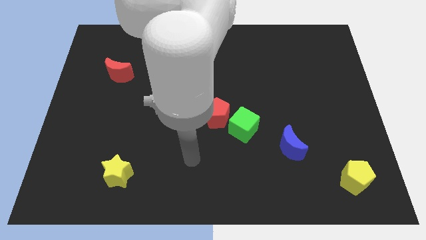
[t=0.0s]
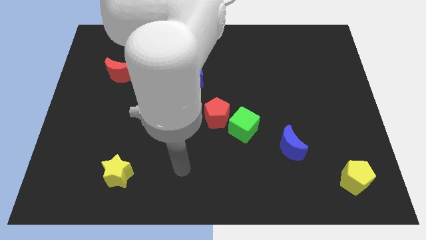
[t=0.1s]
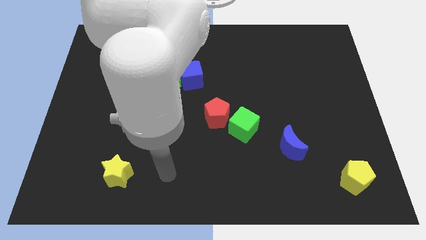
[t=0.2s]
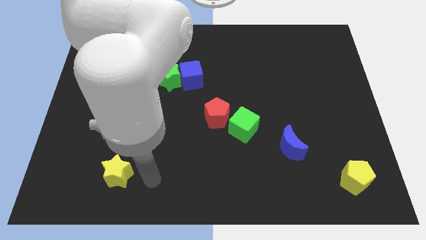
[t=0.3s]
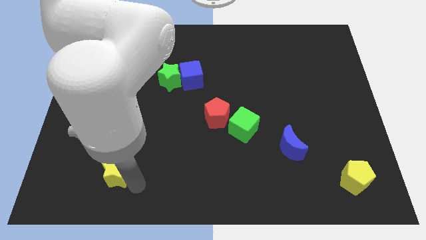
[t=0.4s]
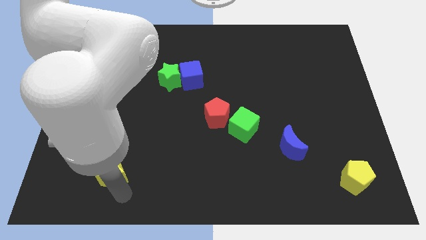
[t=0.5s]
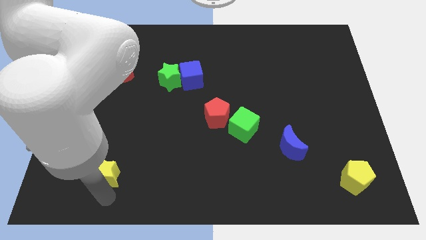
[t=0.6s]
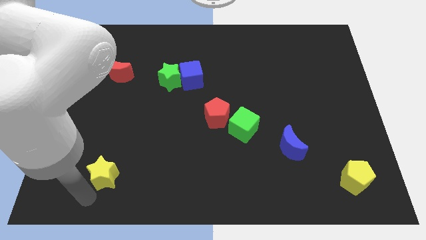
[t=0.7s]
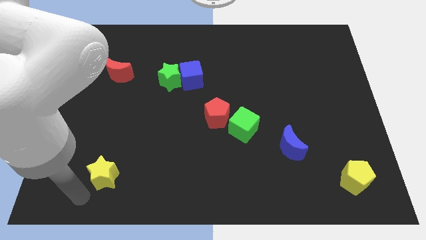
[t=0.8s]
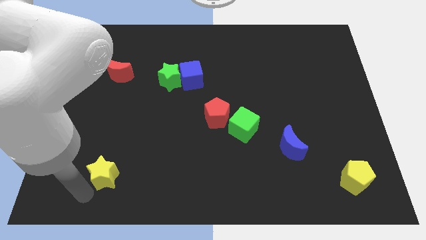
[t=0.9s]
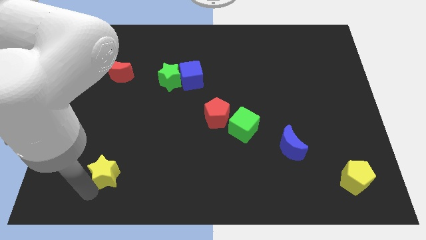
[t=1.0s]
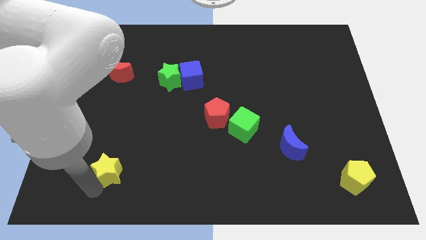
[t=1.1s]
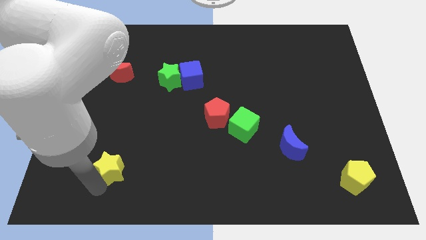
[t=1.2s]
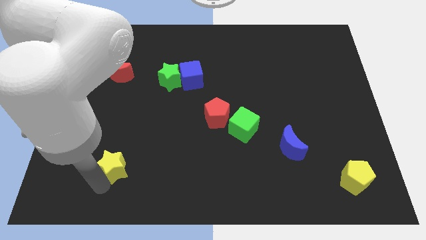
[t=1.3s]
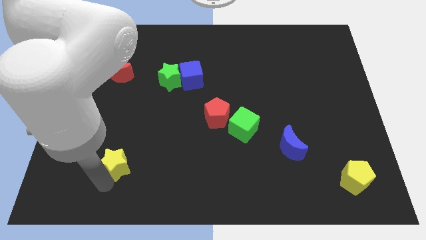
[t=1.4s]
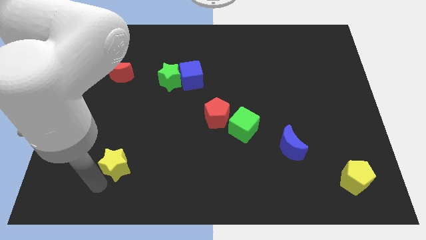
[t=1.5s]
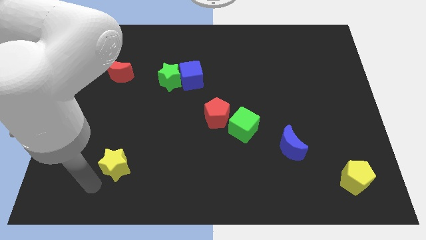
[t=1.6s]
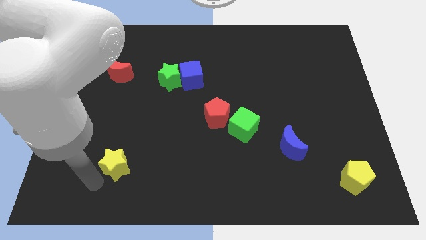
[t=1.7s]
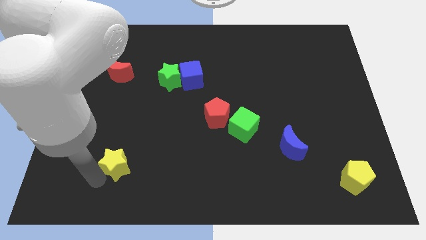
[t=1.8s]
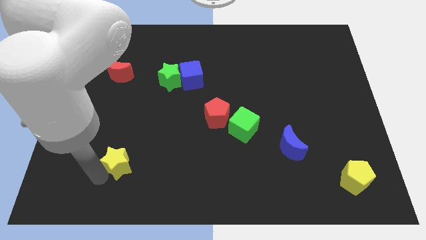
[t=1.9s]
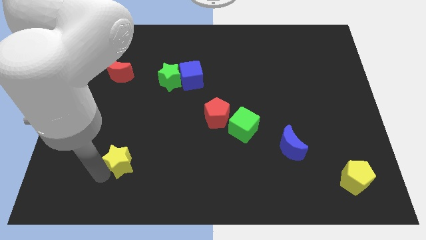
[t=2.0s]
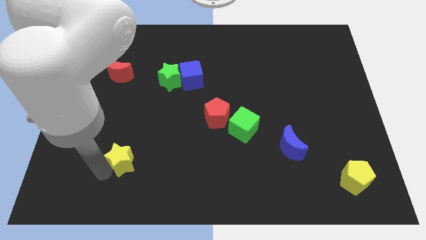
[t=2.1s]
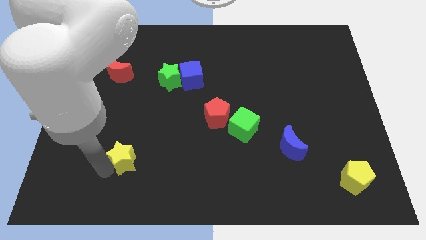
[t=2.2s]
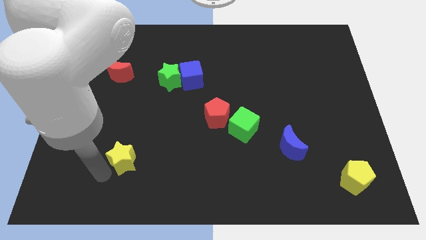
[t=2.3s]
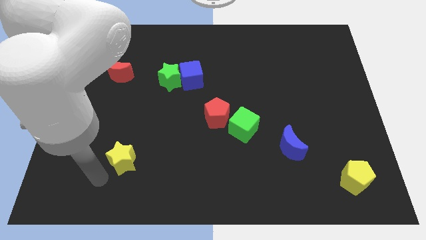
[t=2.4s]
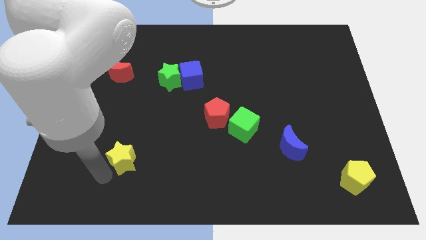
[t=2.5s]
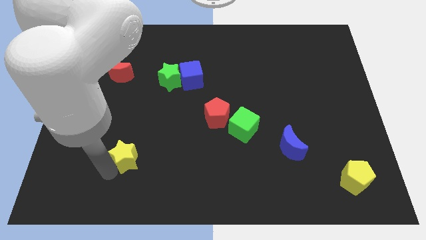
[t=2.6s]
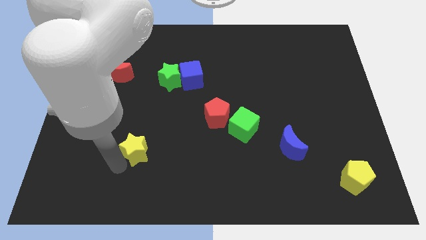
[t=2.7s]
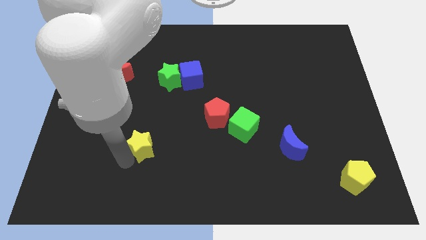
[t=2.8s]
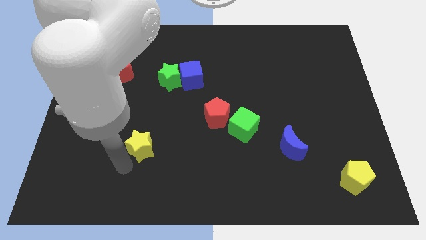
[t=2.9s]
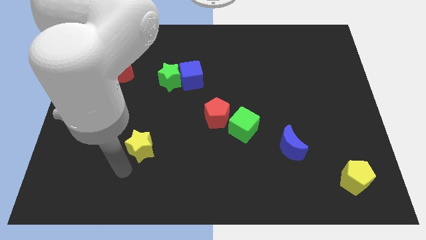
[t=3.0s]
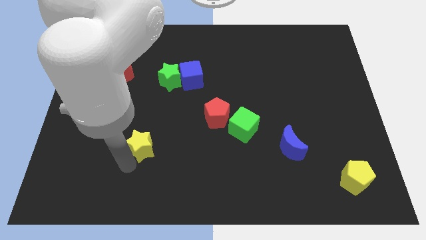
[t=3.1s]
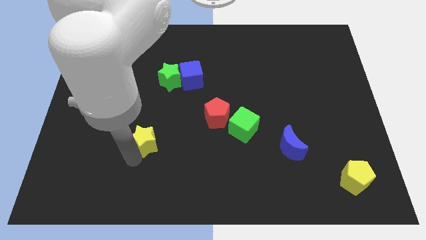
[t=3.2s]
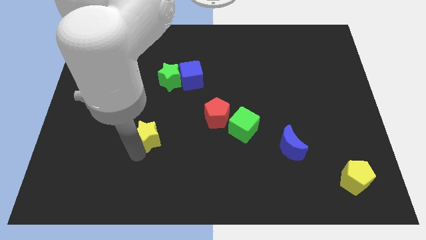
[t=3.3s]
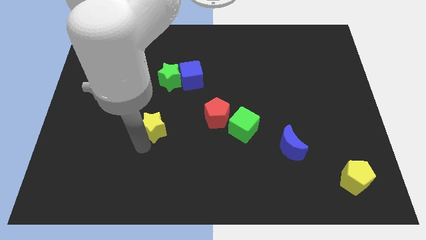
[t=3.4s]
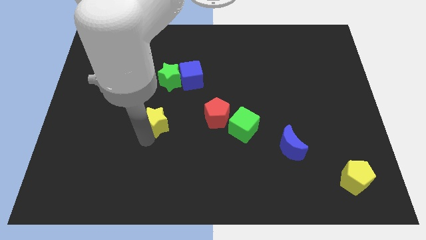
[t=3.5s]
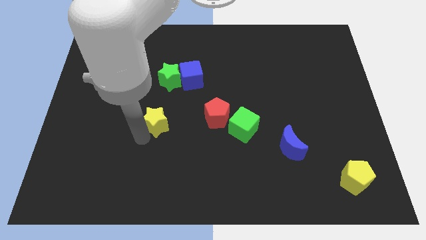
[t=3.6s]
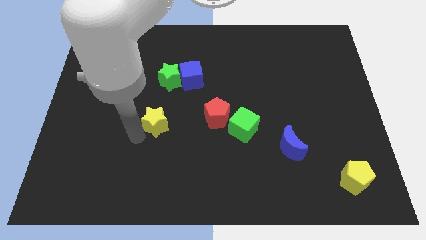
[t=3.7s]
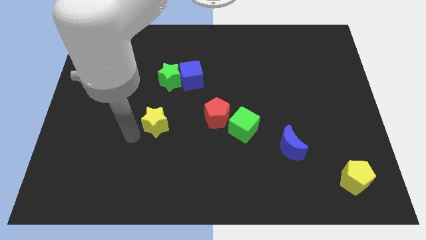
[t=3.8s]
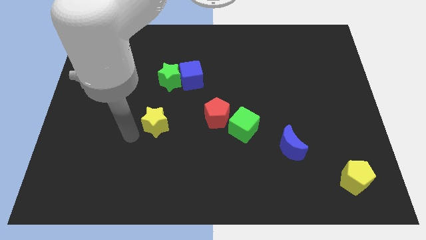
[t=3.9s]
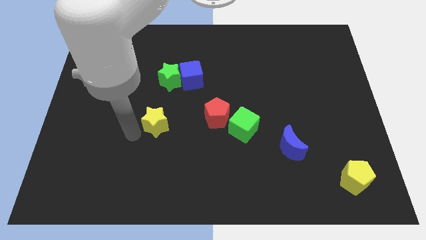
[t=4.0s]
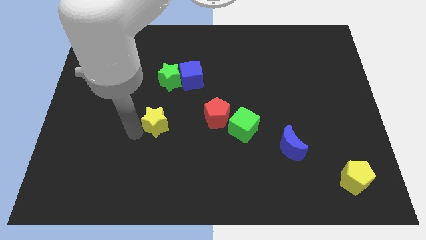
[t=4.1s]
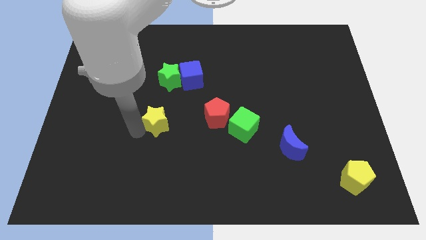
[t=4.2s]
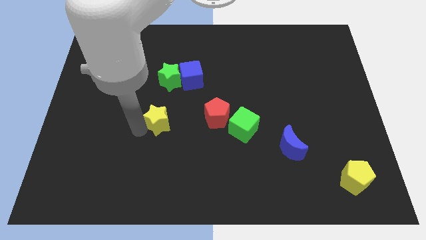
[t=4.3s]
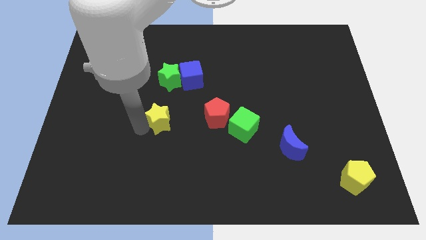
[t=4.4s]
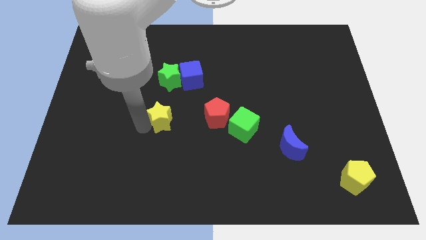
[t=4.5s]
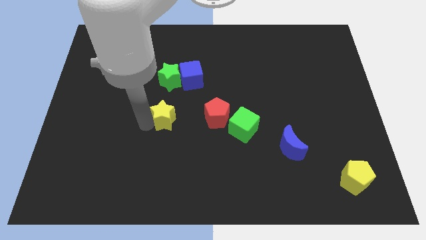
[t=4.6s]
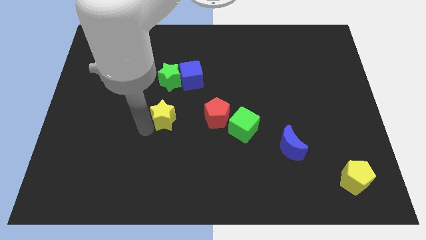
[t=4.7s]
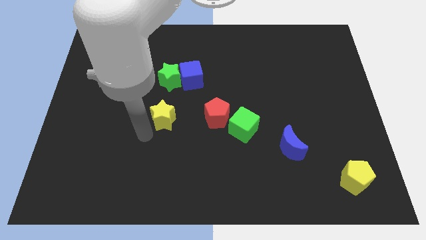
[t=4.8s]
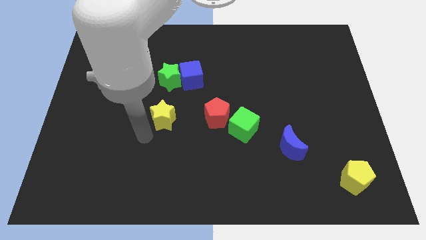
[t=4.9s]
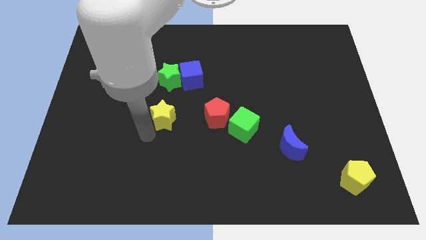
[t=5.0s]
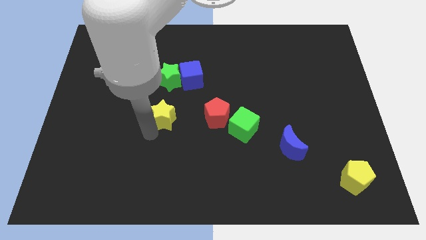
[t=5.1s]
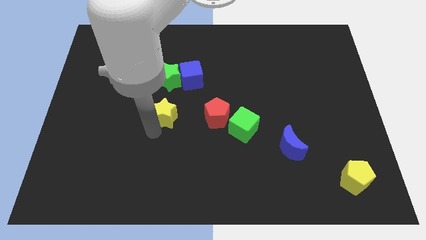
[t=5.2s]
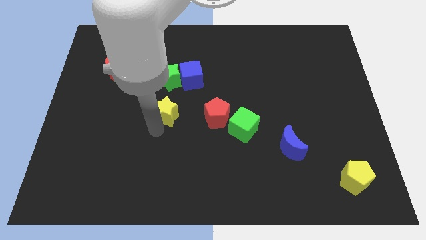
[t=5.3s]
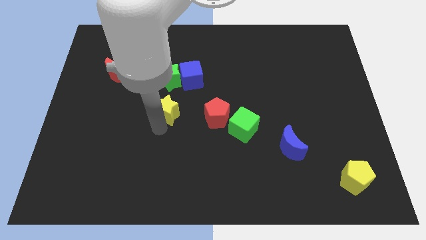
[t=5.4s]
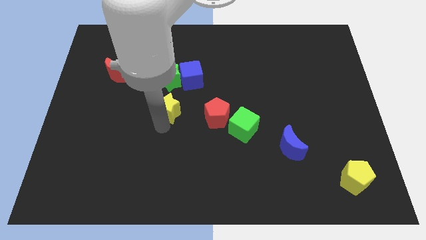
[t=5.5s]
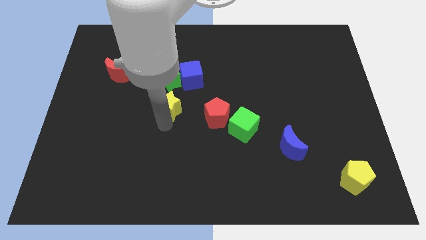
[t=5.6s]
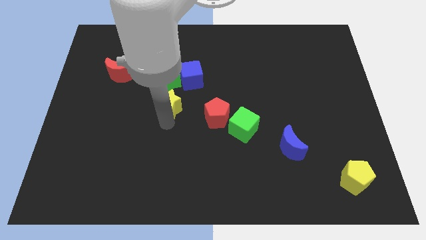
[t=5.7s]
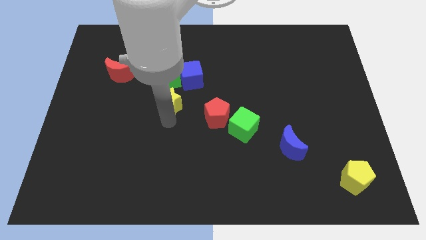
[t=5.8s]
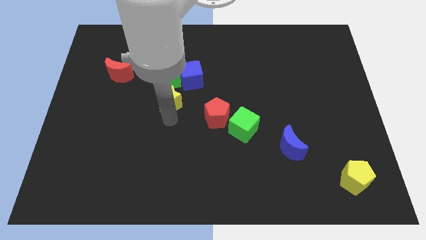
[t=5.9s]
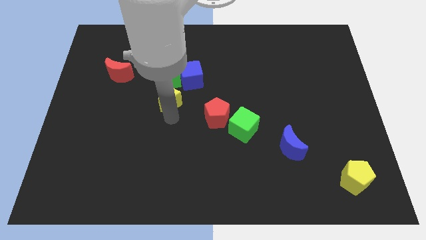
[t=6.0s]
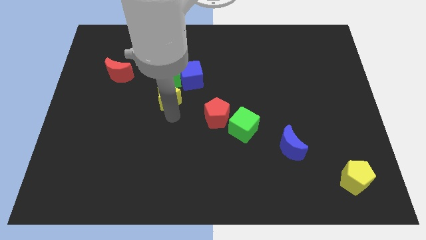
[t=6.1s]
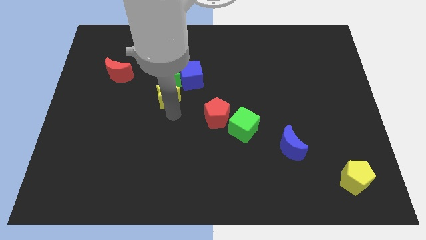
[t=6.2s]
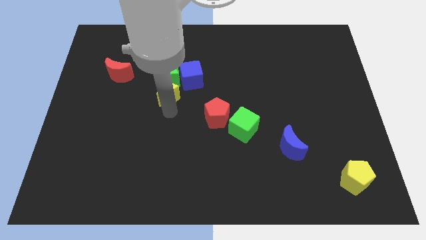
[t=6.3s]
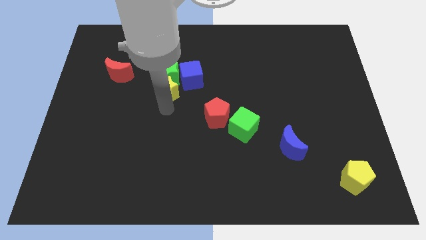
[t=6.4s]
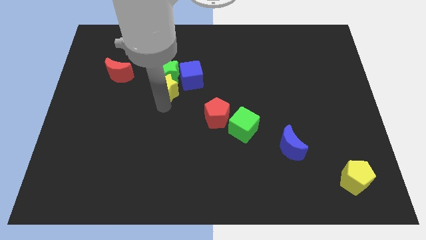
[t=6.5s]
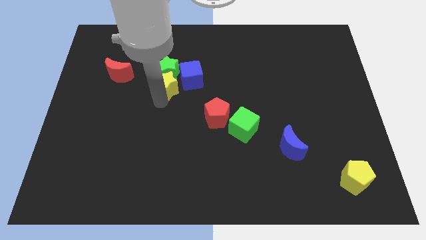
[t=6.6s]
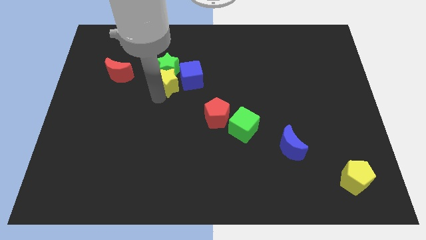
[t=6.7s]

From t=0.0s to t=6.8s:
push the yellow star next to the blue cube

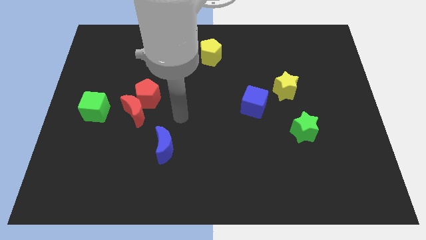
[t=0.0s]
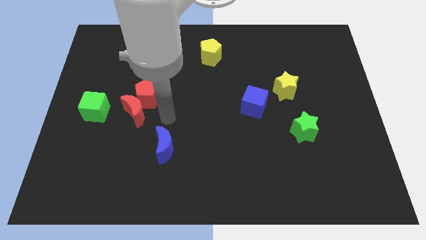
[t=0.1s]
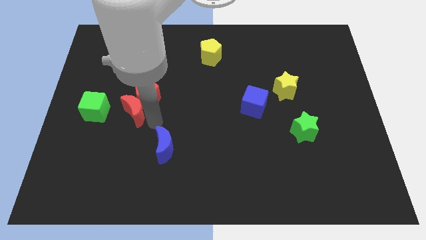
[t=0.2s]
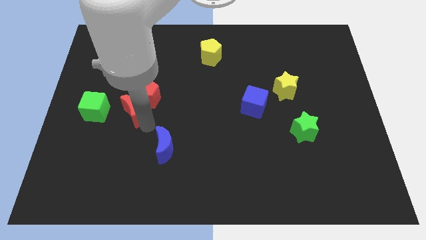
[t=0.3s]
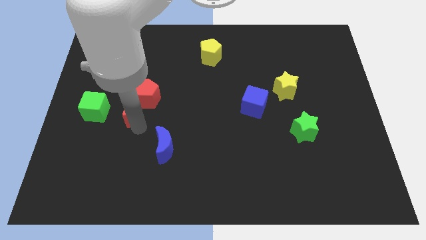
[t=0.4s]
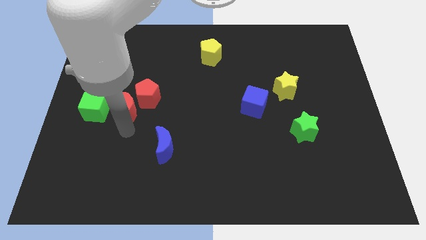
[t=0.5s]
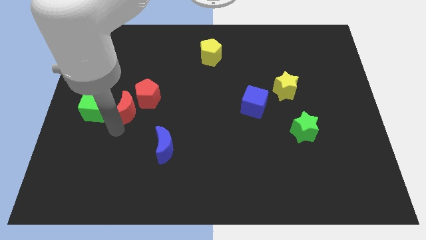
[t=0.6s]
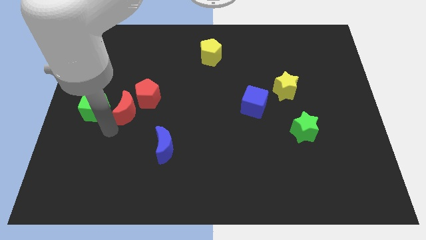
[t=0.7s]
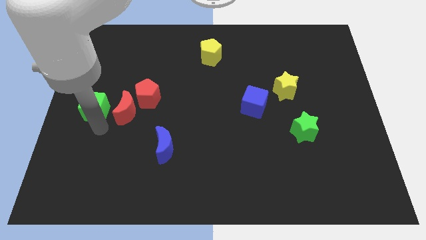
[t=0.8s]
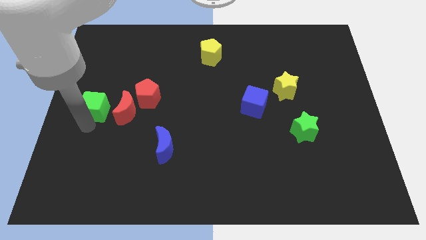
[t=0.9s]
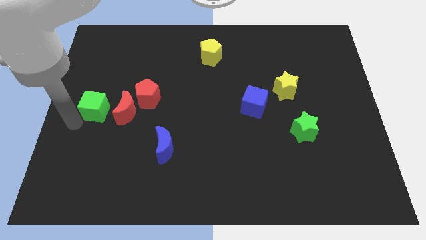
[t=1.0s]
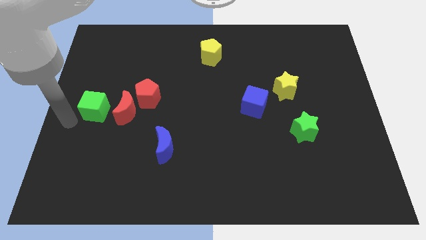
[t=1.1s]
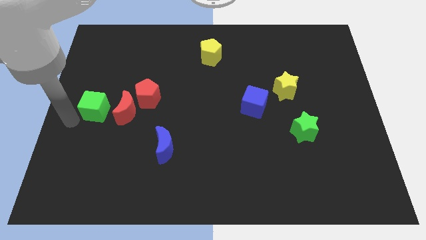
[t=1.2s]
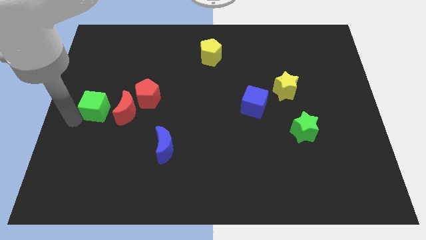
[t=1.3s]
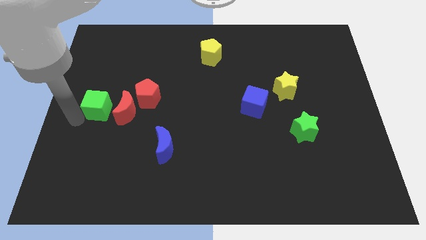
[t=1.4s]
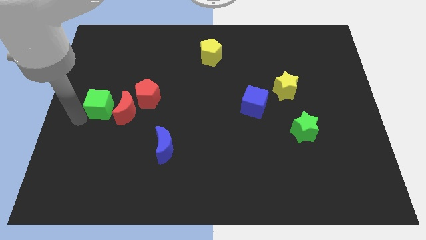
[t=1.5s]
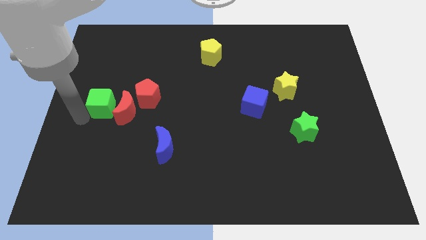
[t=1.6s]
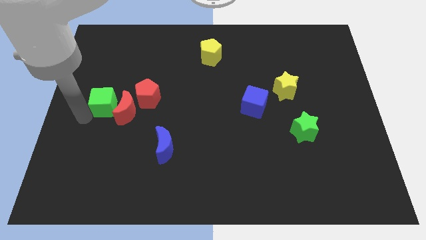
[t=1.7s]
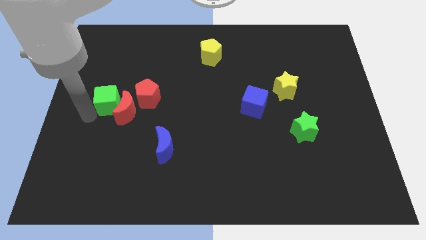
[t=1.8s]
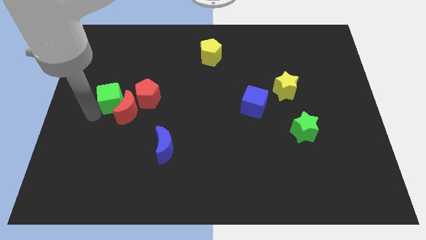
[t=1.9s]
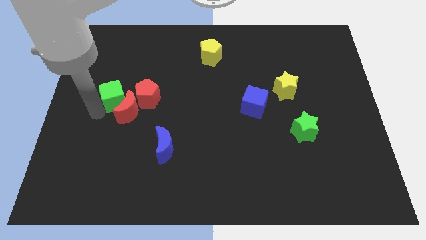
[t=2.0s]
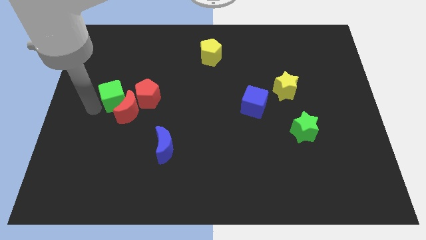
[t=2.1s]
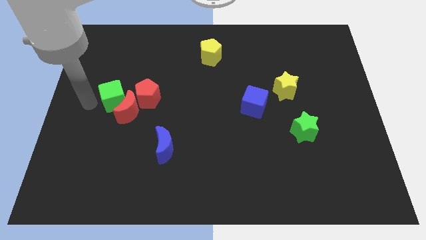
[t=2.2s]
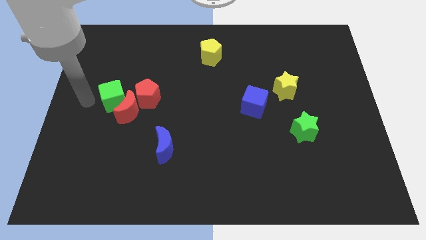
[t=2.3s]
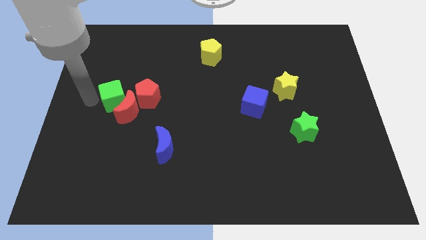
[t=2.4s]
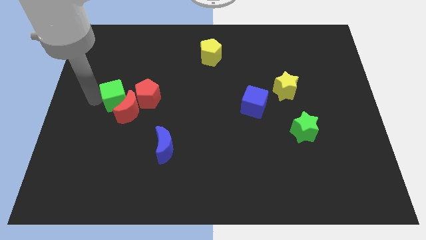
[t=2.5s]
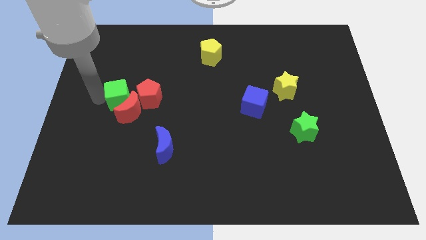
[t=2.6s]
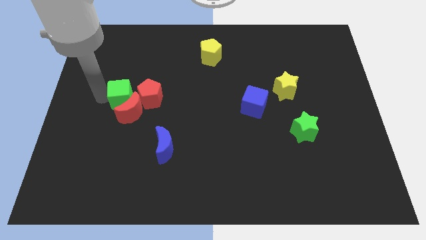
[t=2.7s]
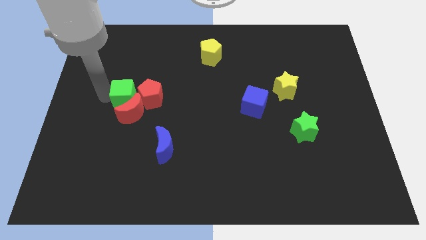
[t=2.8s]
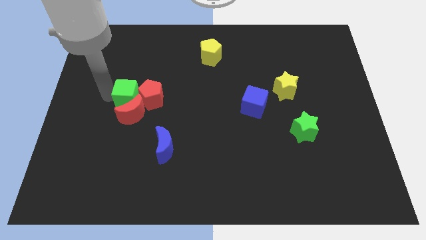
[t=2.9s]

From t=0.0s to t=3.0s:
push the green cube next to the red pentagon
